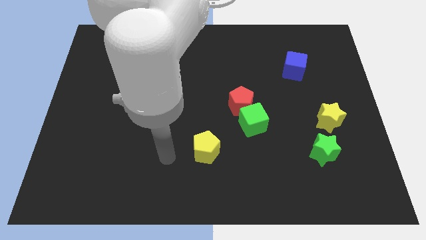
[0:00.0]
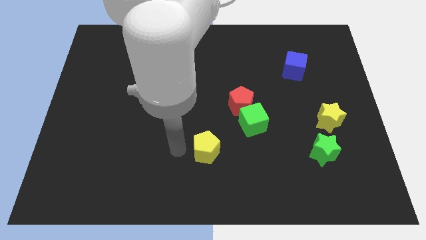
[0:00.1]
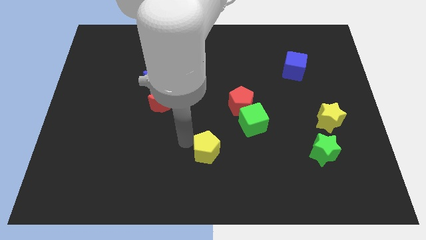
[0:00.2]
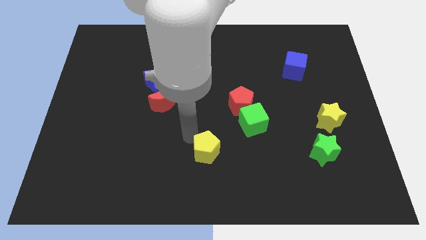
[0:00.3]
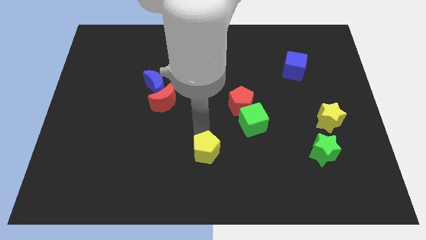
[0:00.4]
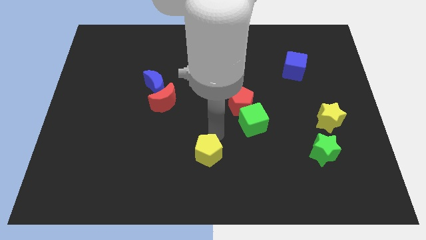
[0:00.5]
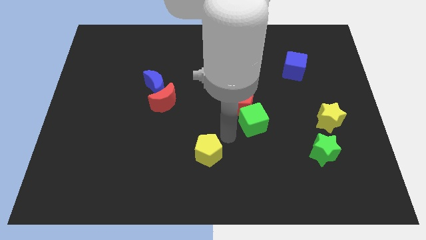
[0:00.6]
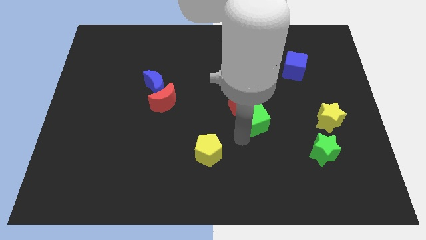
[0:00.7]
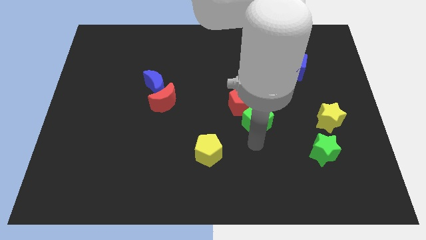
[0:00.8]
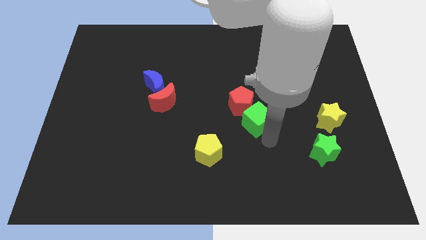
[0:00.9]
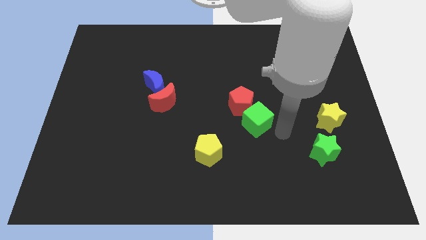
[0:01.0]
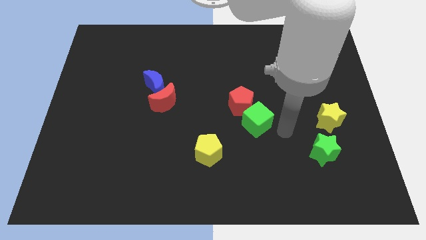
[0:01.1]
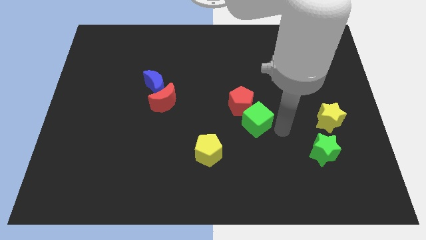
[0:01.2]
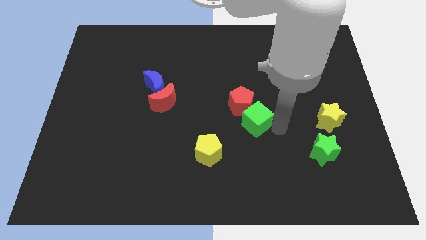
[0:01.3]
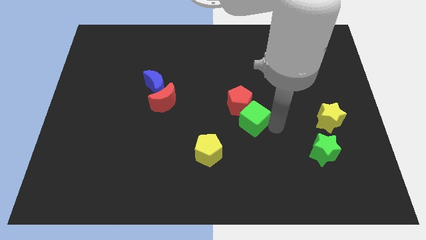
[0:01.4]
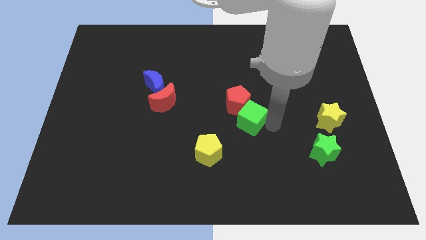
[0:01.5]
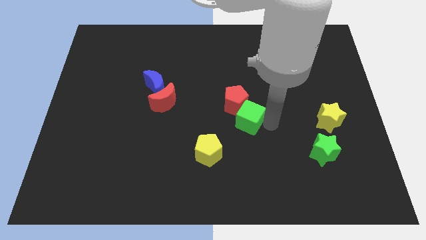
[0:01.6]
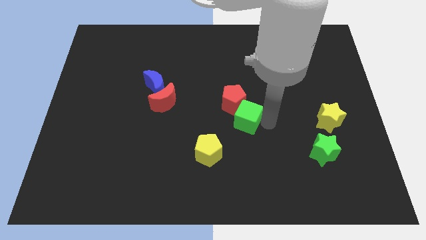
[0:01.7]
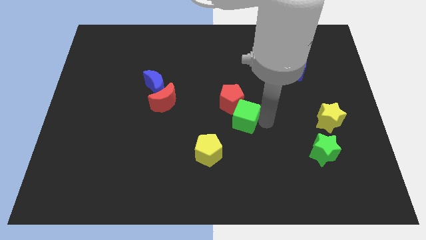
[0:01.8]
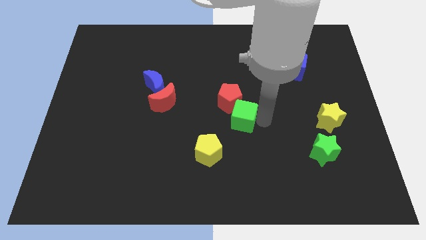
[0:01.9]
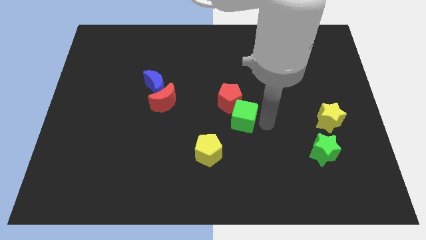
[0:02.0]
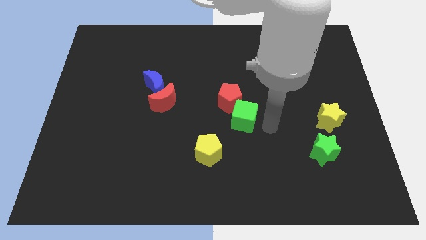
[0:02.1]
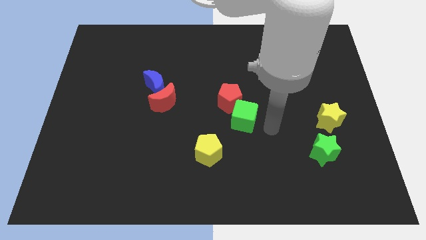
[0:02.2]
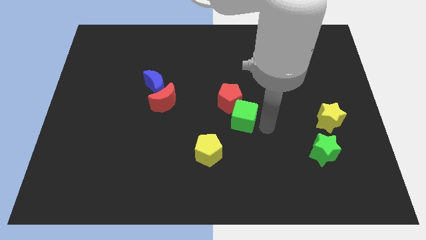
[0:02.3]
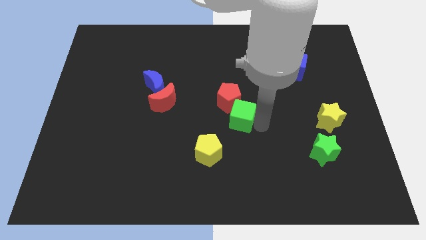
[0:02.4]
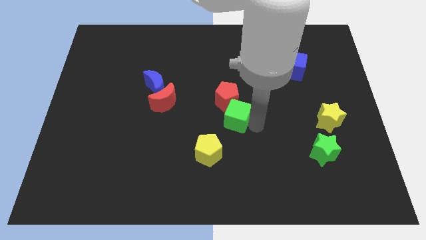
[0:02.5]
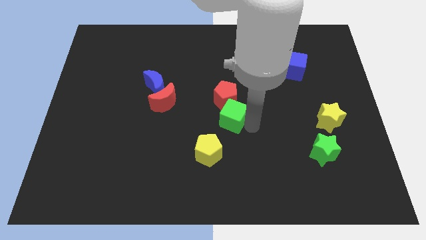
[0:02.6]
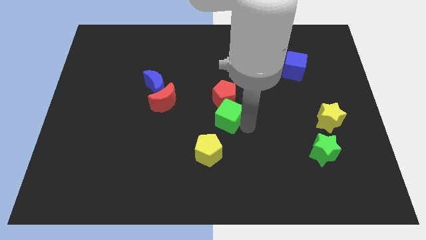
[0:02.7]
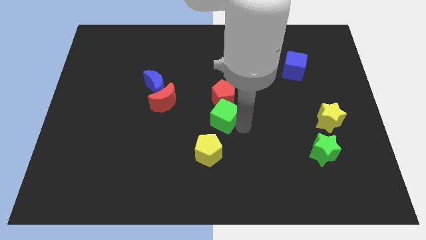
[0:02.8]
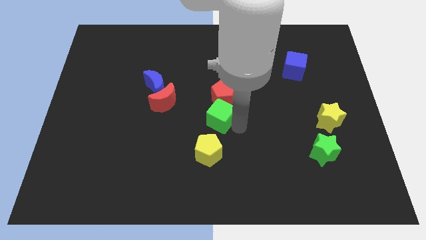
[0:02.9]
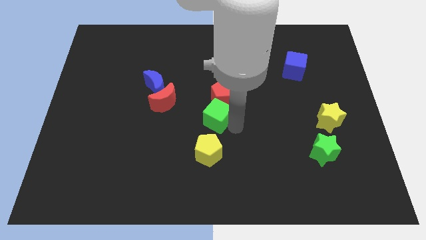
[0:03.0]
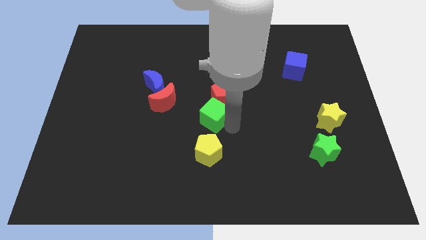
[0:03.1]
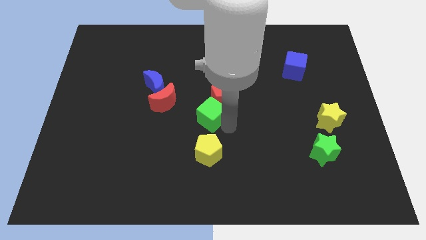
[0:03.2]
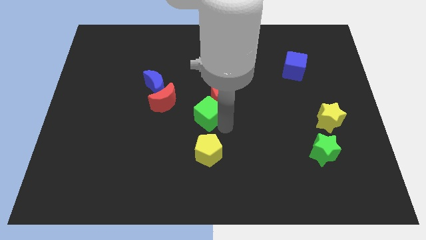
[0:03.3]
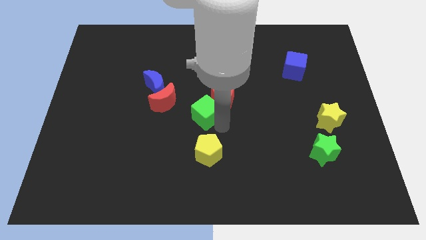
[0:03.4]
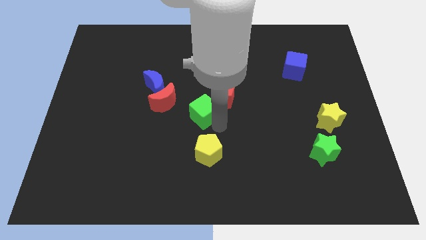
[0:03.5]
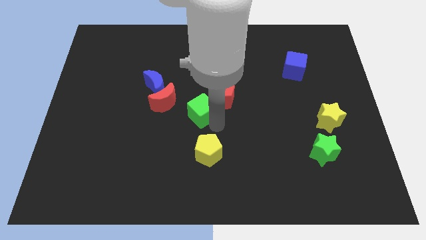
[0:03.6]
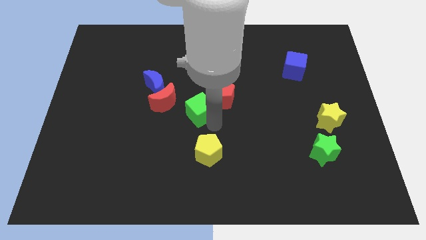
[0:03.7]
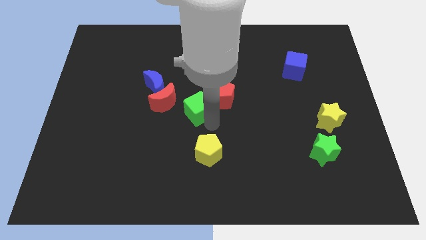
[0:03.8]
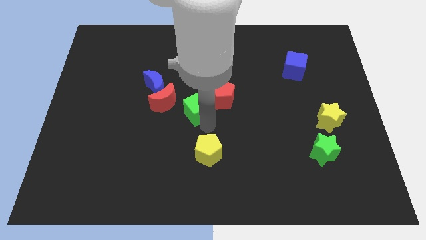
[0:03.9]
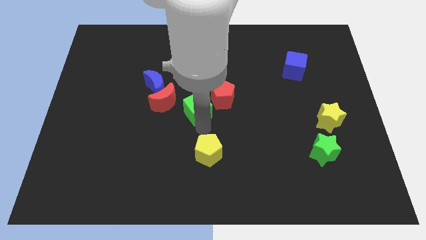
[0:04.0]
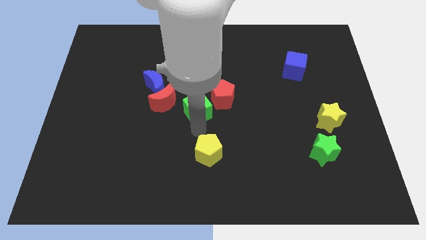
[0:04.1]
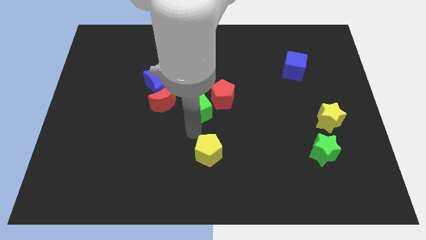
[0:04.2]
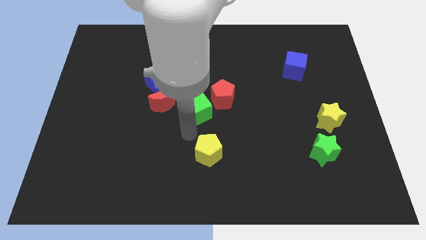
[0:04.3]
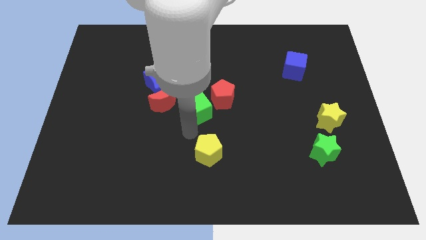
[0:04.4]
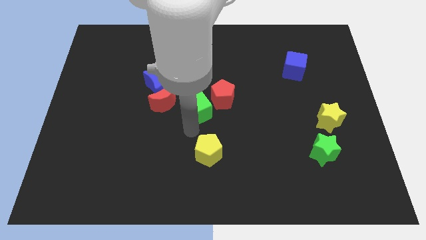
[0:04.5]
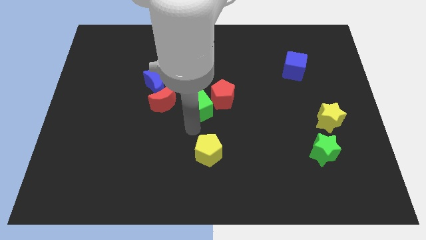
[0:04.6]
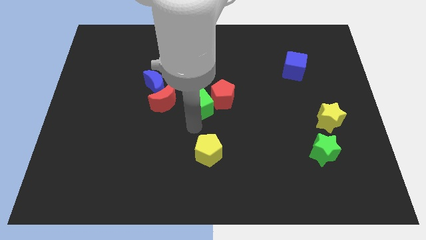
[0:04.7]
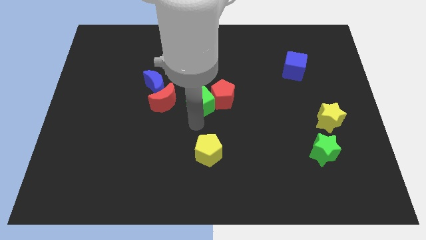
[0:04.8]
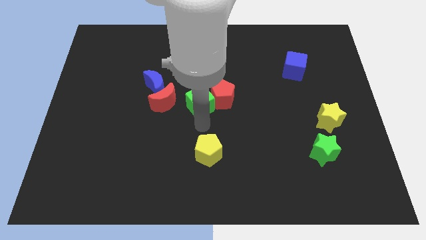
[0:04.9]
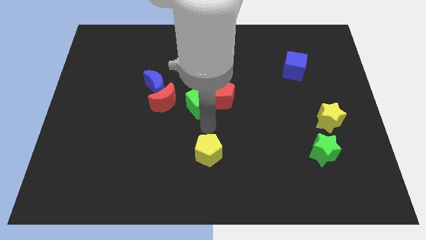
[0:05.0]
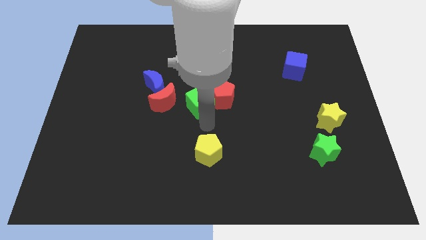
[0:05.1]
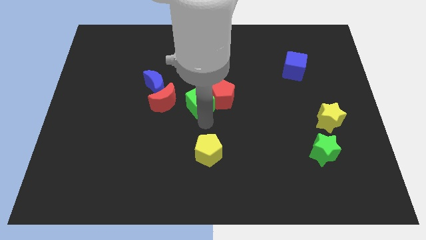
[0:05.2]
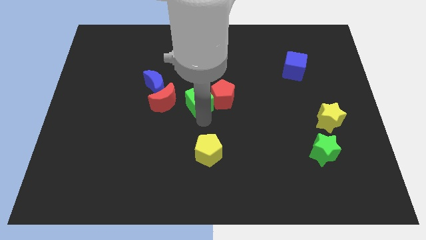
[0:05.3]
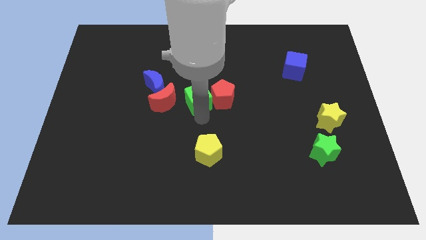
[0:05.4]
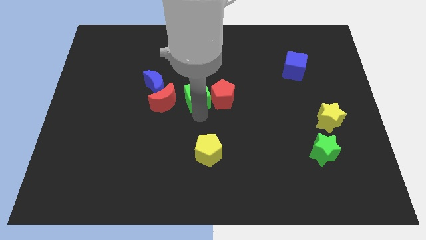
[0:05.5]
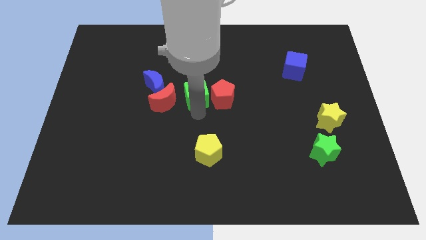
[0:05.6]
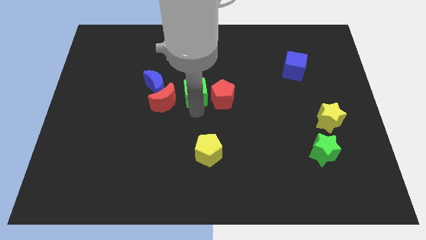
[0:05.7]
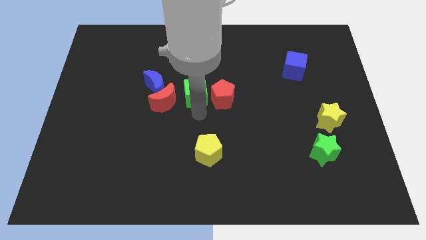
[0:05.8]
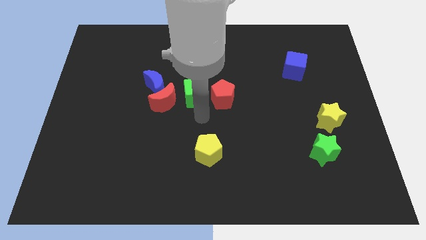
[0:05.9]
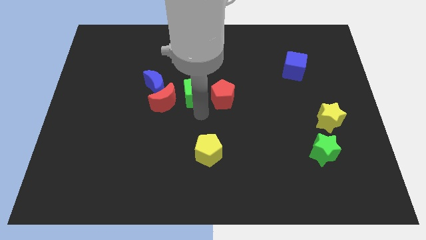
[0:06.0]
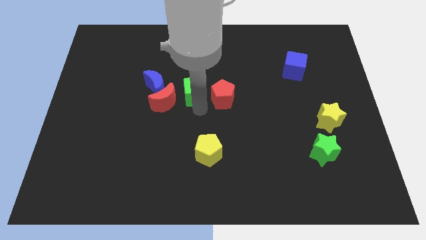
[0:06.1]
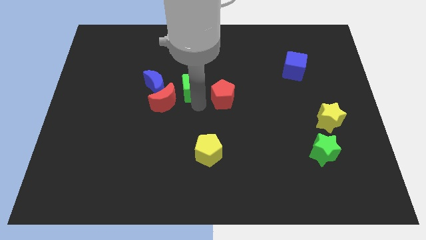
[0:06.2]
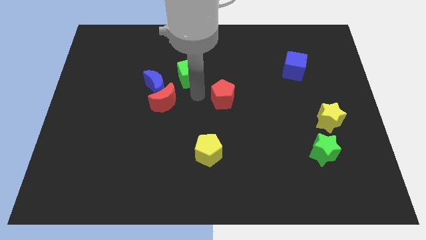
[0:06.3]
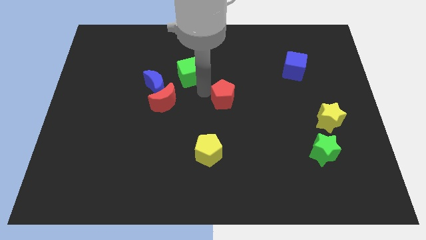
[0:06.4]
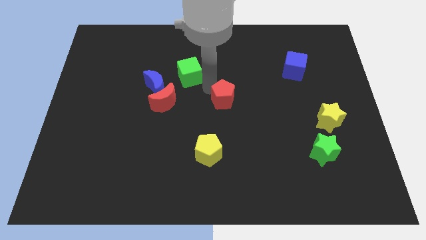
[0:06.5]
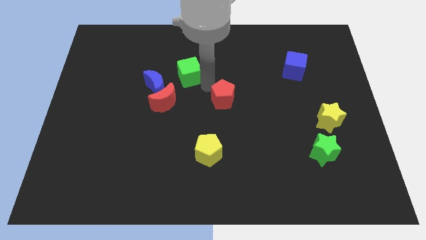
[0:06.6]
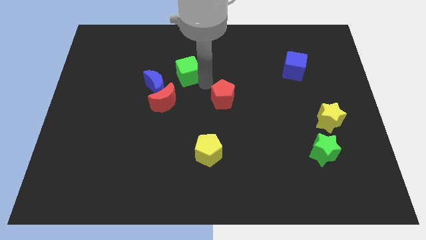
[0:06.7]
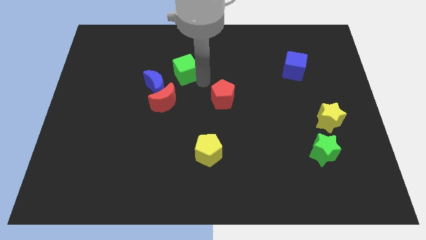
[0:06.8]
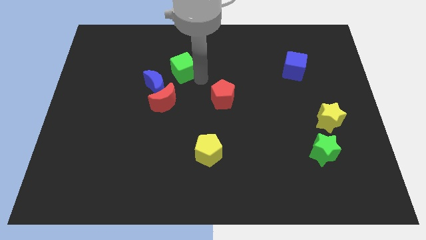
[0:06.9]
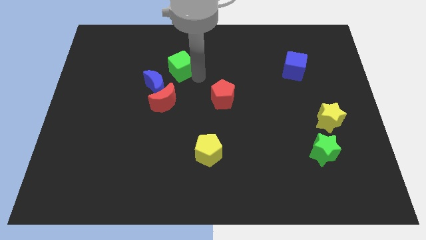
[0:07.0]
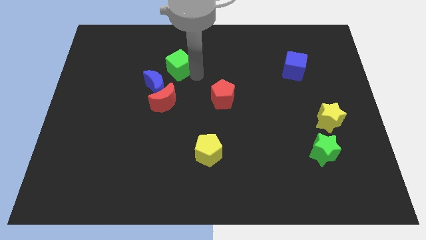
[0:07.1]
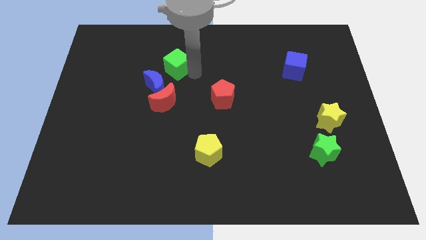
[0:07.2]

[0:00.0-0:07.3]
slide the green cube to the top side of the blue moon

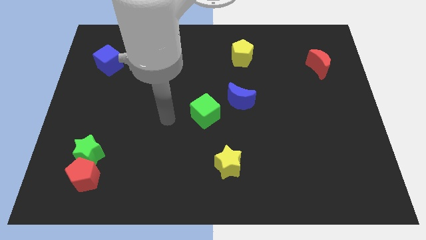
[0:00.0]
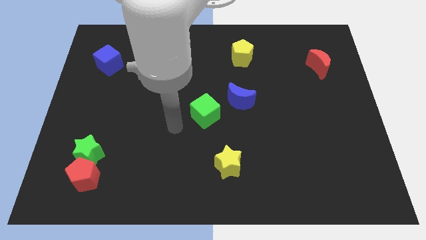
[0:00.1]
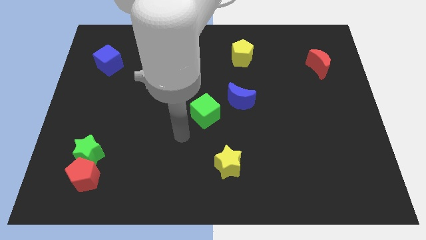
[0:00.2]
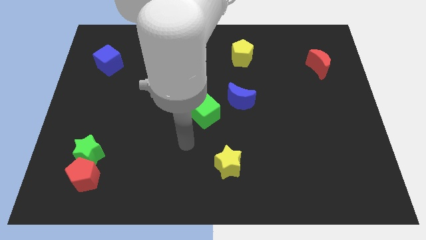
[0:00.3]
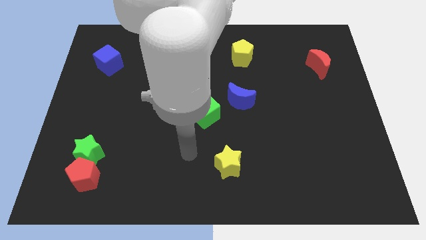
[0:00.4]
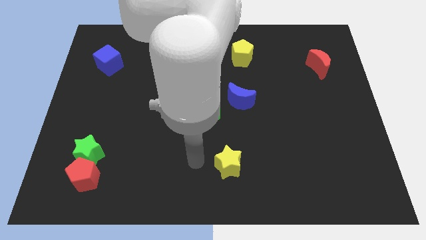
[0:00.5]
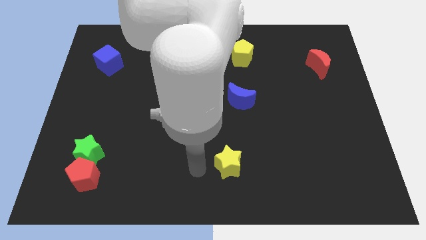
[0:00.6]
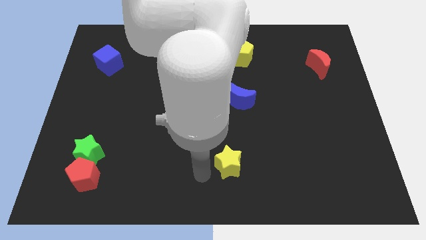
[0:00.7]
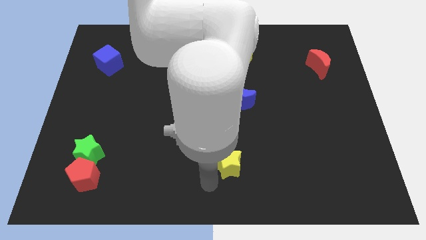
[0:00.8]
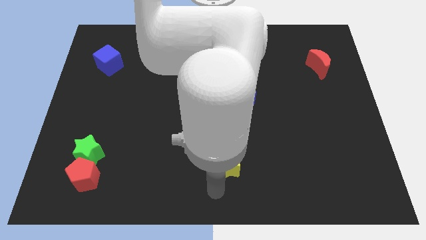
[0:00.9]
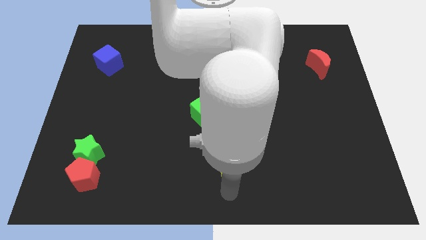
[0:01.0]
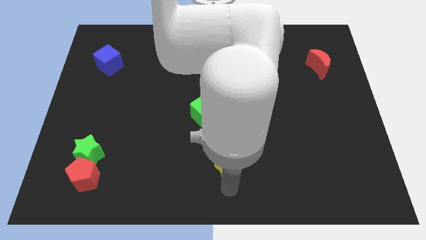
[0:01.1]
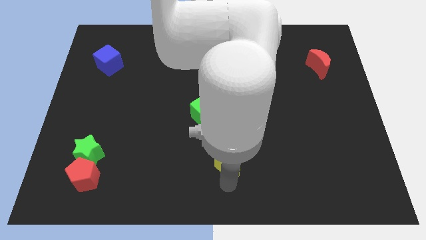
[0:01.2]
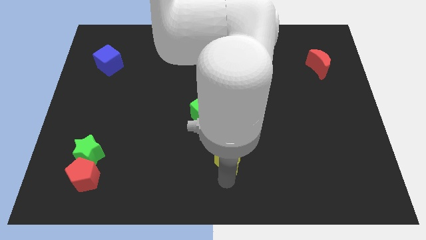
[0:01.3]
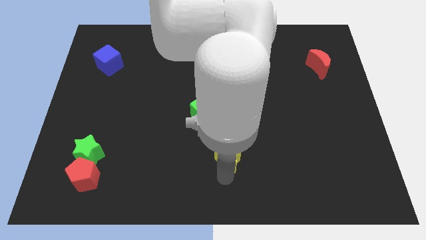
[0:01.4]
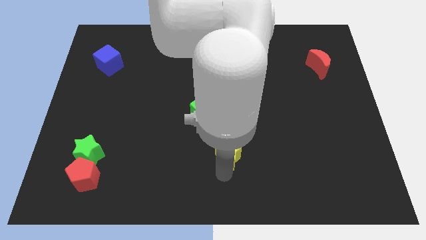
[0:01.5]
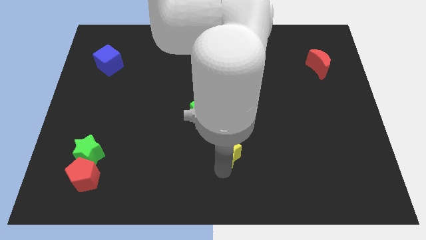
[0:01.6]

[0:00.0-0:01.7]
push the yellow star to the bottom right of the green cube
